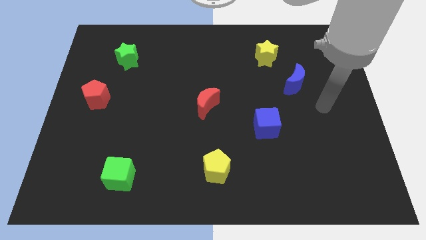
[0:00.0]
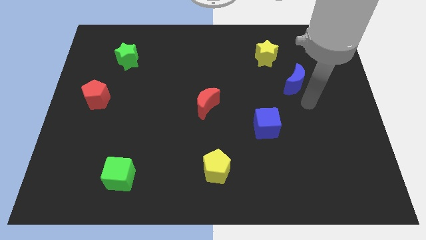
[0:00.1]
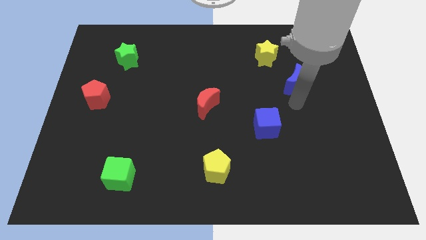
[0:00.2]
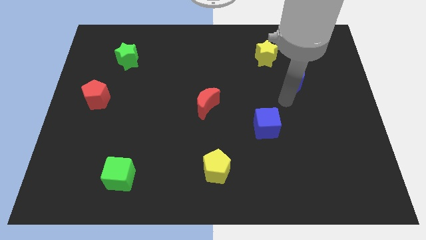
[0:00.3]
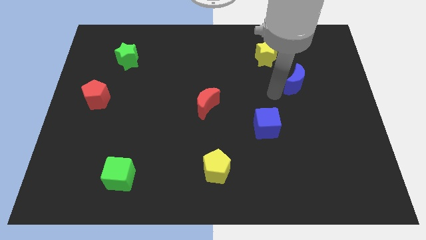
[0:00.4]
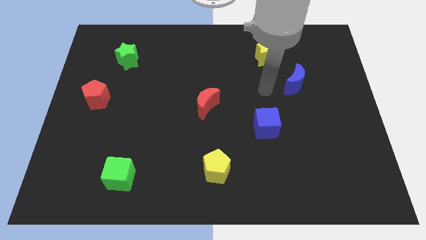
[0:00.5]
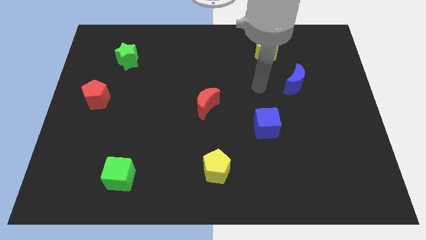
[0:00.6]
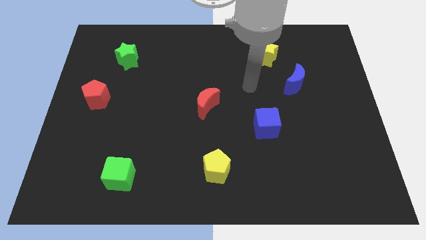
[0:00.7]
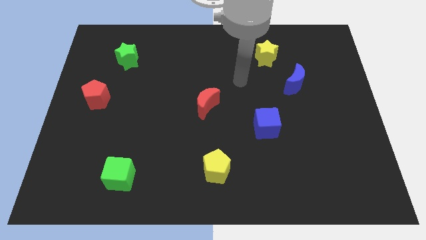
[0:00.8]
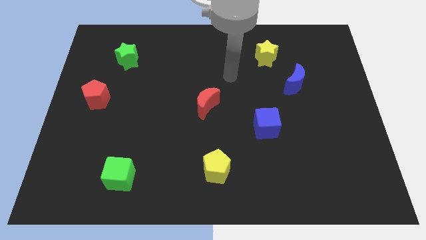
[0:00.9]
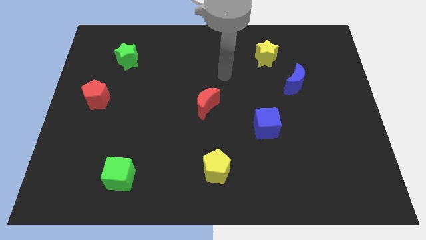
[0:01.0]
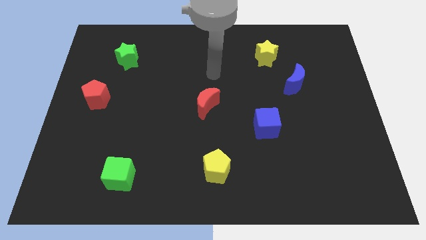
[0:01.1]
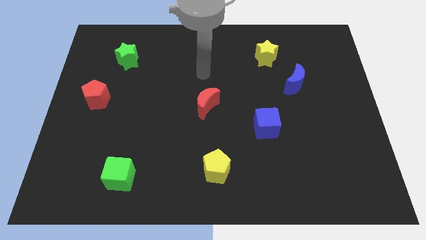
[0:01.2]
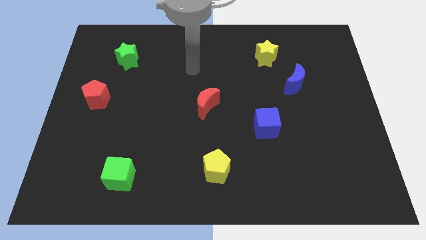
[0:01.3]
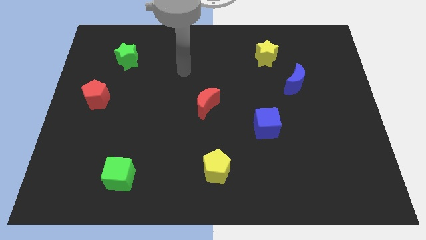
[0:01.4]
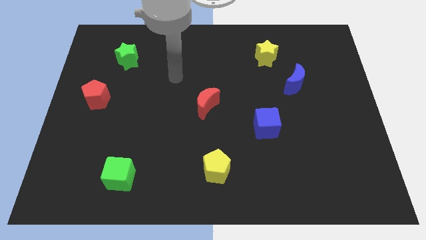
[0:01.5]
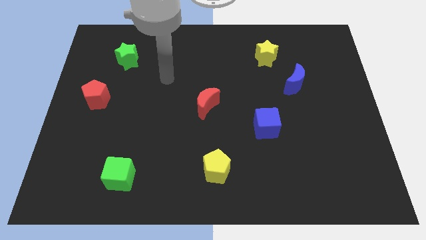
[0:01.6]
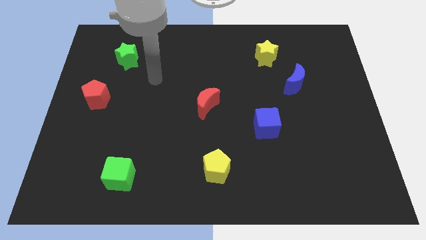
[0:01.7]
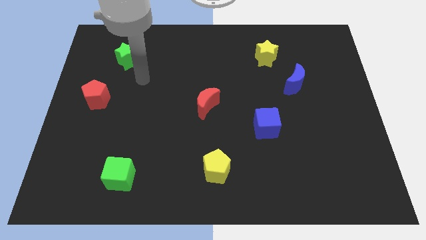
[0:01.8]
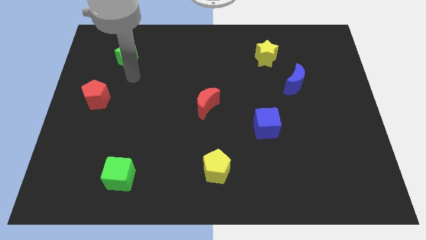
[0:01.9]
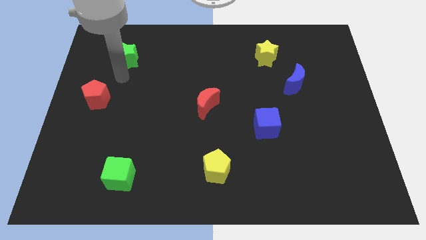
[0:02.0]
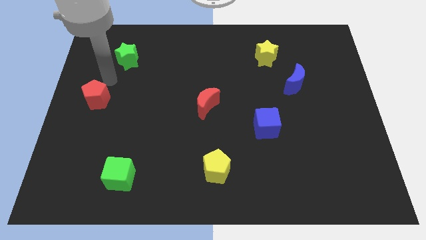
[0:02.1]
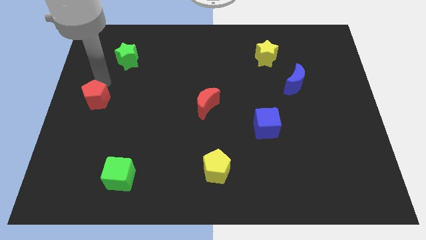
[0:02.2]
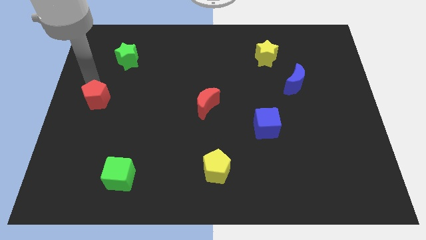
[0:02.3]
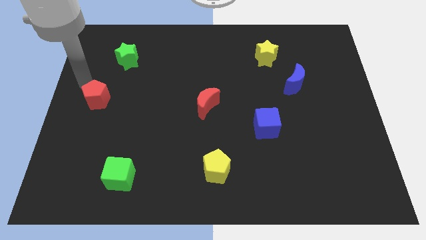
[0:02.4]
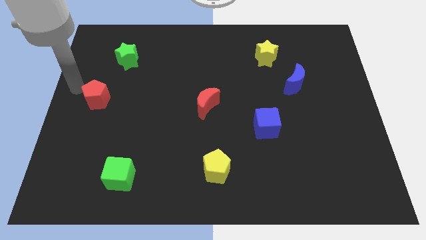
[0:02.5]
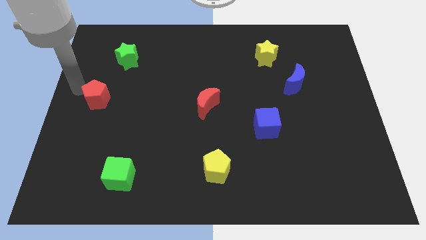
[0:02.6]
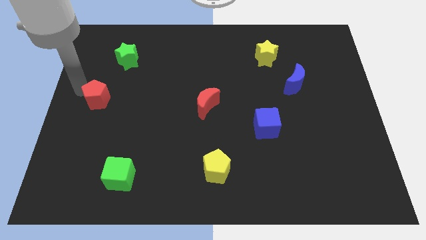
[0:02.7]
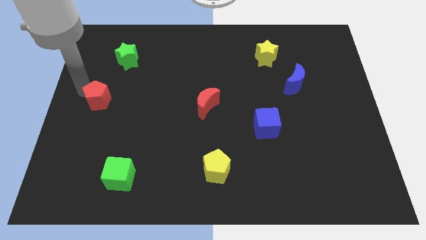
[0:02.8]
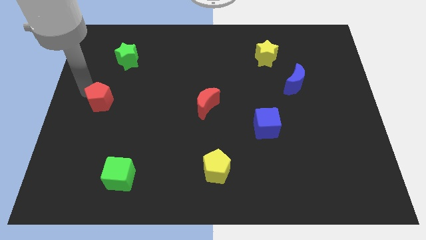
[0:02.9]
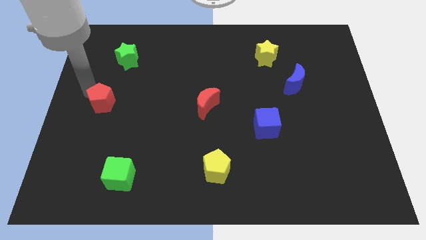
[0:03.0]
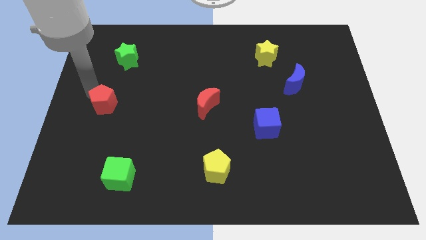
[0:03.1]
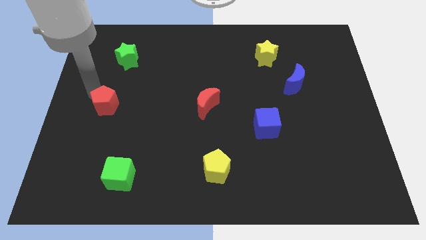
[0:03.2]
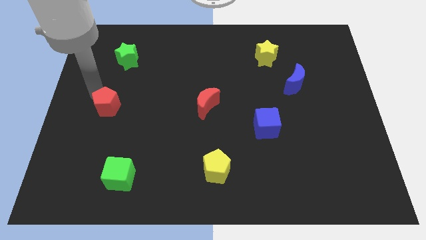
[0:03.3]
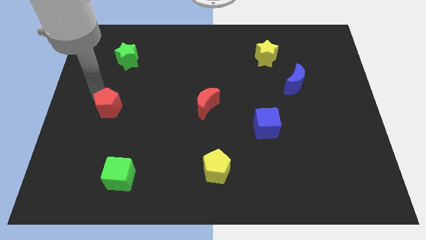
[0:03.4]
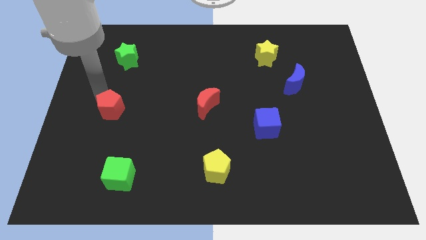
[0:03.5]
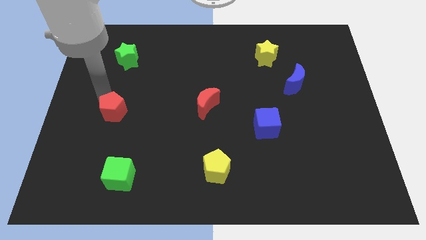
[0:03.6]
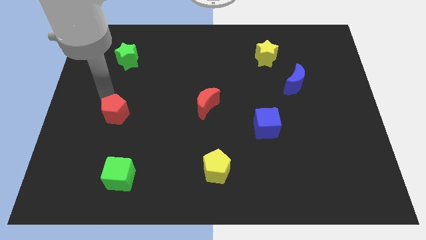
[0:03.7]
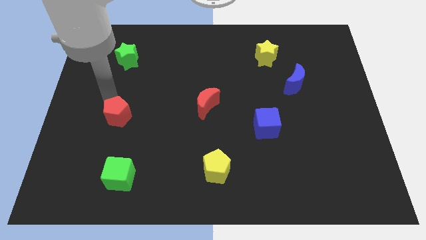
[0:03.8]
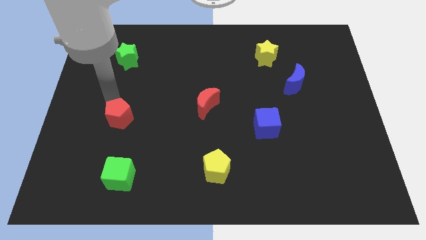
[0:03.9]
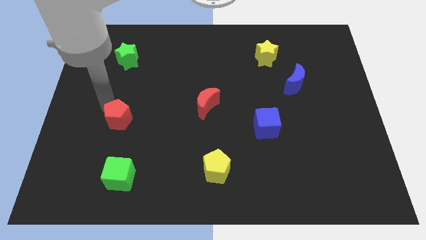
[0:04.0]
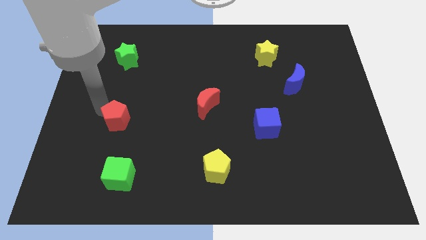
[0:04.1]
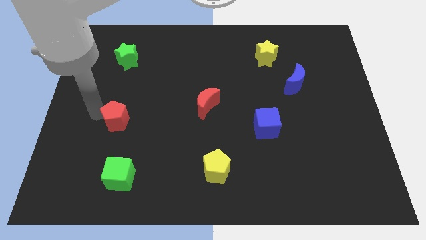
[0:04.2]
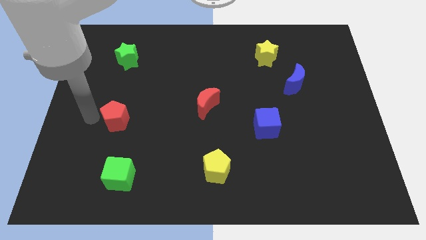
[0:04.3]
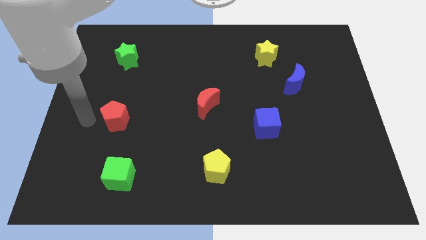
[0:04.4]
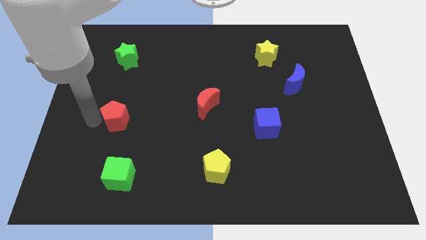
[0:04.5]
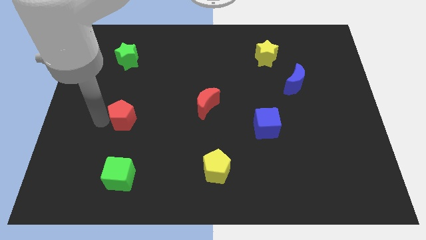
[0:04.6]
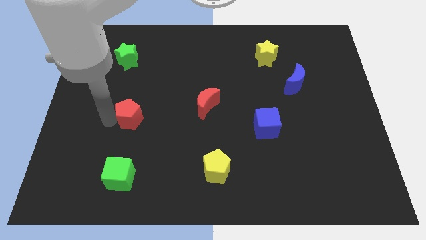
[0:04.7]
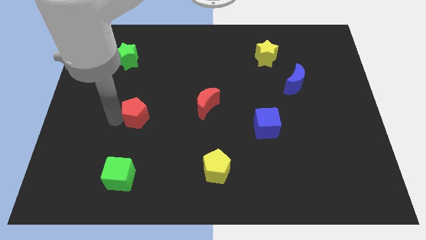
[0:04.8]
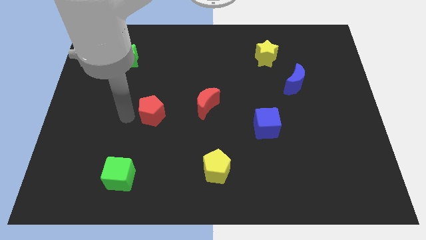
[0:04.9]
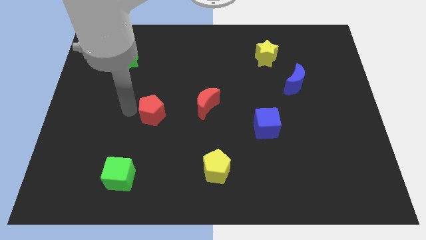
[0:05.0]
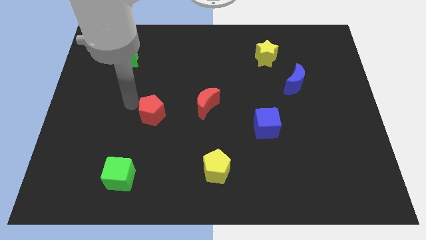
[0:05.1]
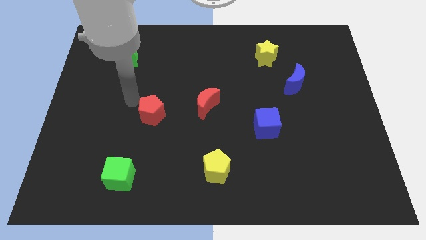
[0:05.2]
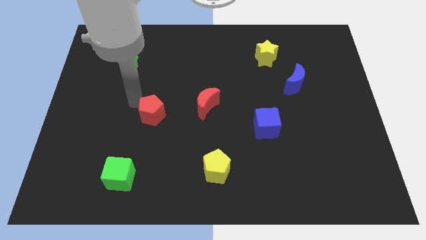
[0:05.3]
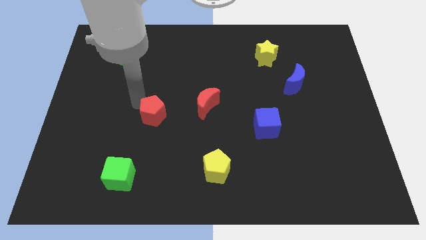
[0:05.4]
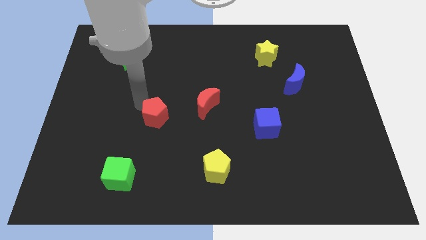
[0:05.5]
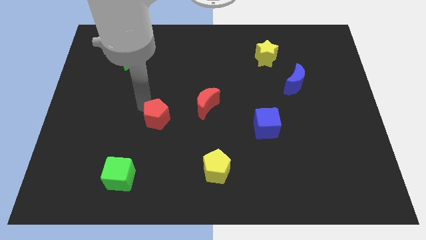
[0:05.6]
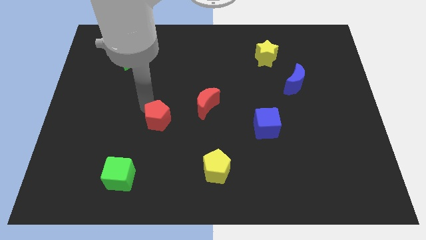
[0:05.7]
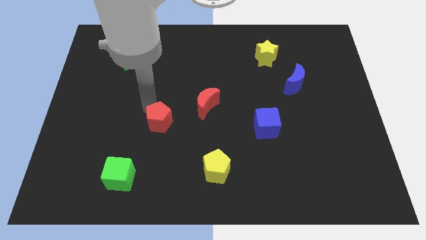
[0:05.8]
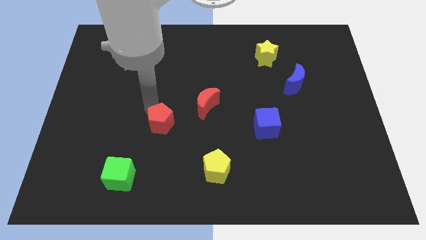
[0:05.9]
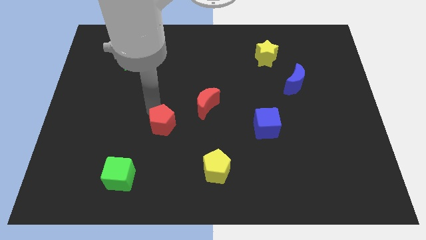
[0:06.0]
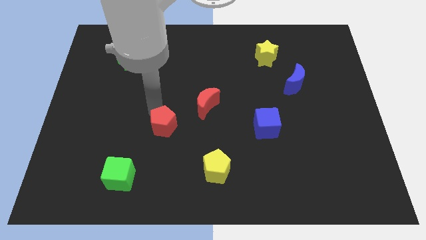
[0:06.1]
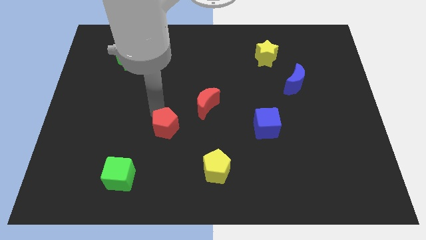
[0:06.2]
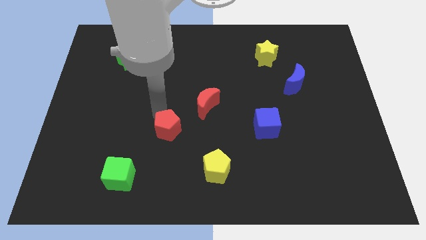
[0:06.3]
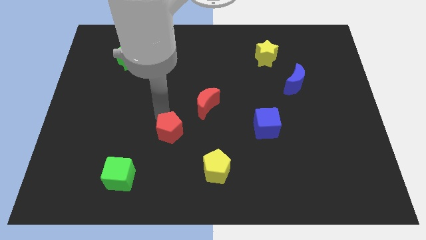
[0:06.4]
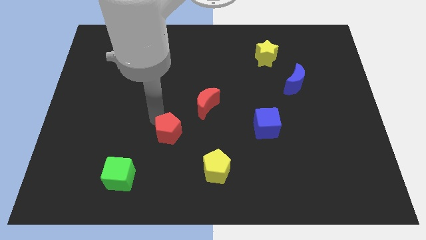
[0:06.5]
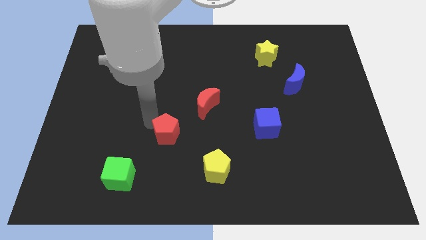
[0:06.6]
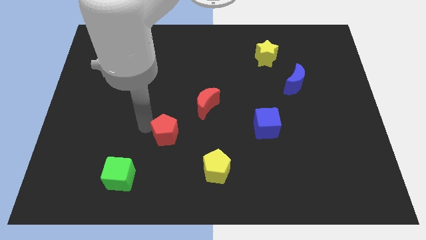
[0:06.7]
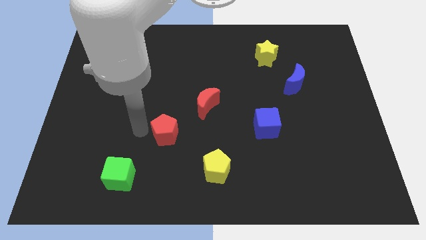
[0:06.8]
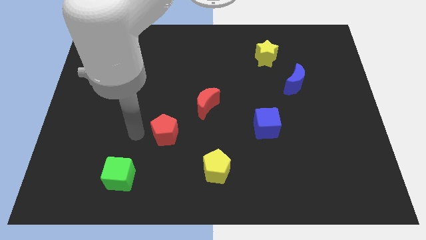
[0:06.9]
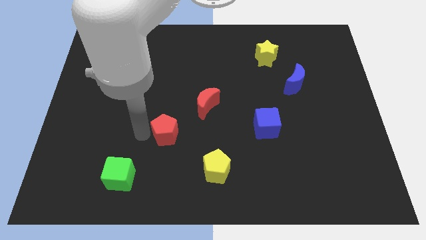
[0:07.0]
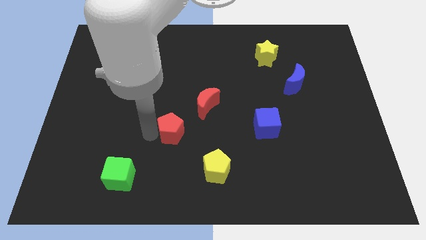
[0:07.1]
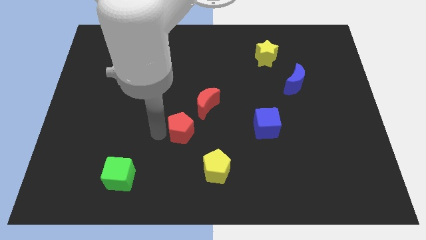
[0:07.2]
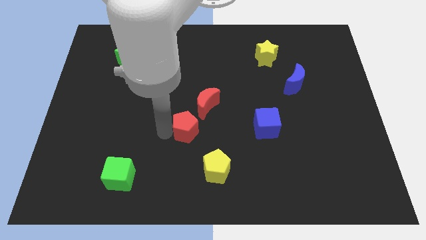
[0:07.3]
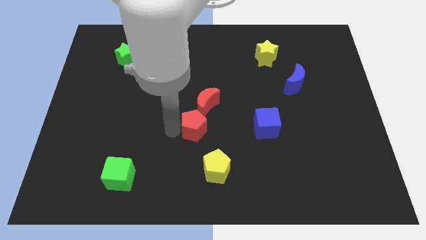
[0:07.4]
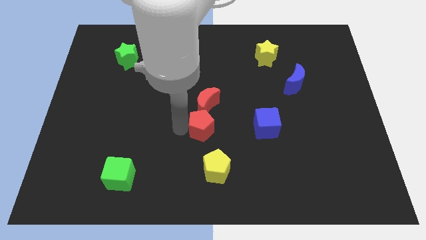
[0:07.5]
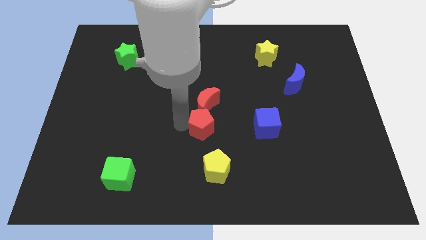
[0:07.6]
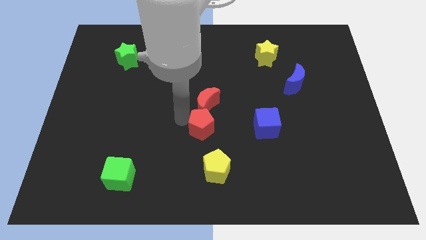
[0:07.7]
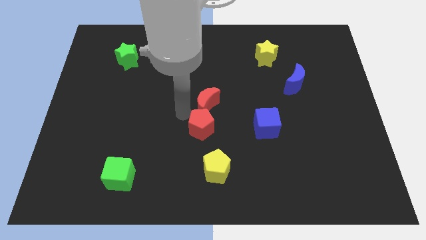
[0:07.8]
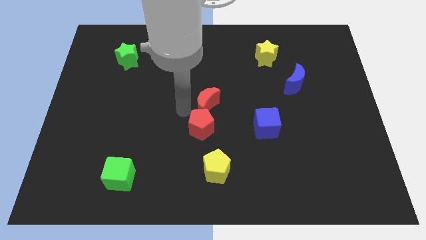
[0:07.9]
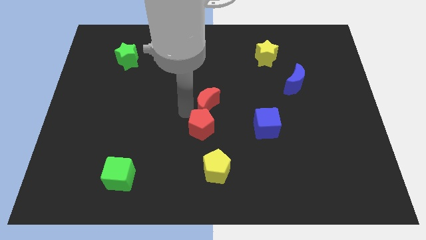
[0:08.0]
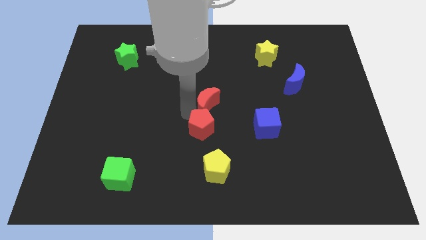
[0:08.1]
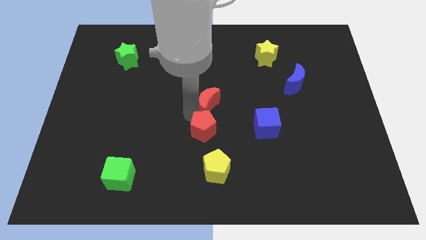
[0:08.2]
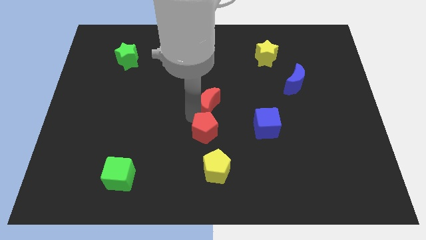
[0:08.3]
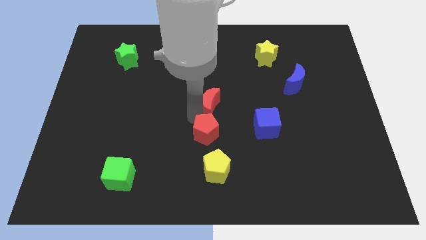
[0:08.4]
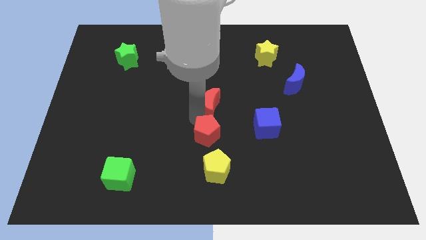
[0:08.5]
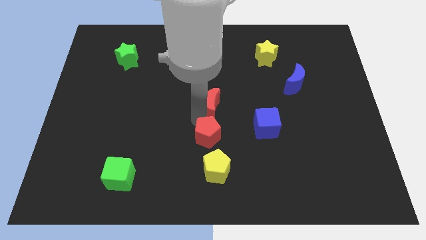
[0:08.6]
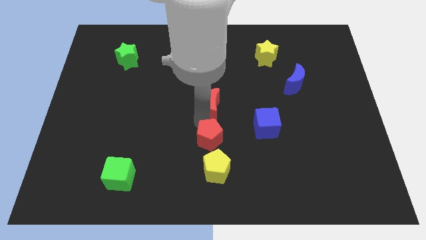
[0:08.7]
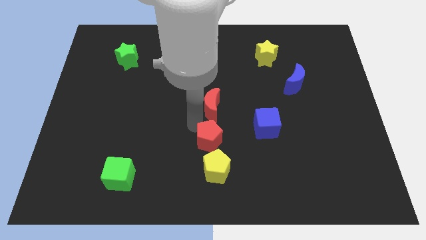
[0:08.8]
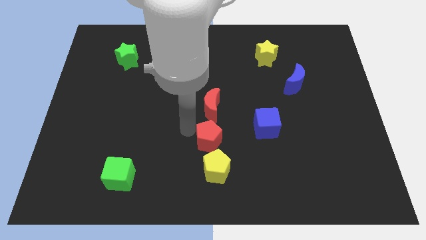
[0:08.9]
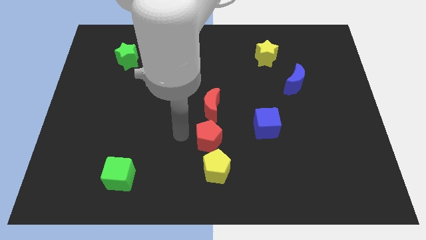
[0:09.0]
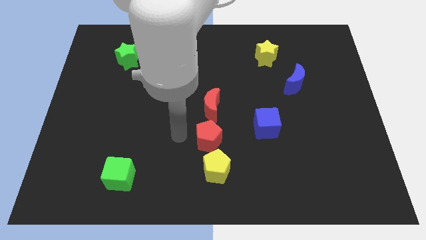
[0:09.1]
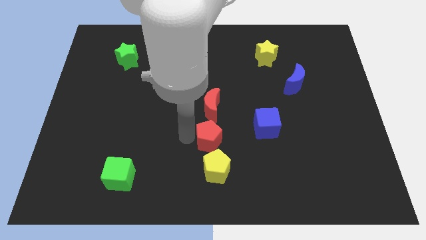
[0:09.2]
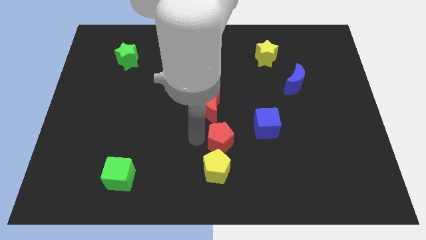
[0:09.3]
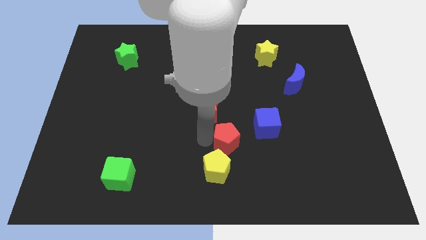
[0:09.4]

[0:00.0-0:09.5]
slide the red pentagon diagonally down and to the left of the blue cube
